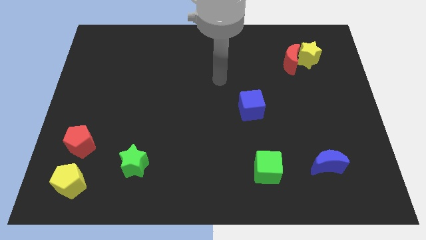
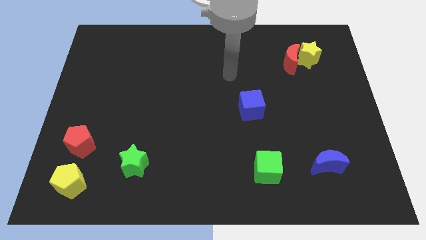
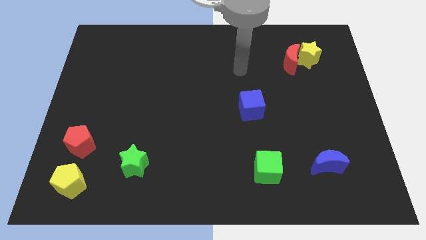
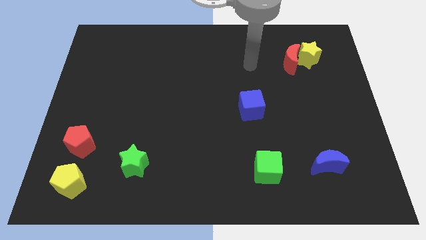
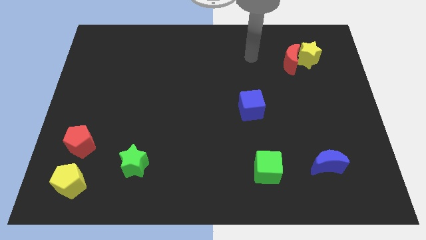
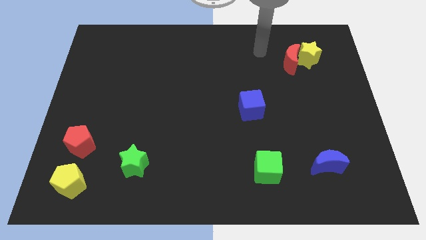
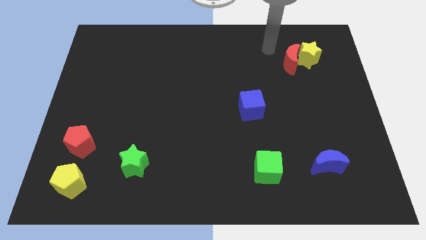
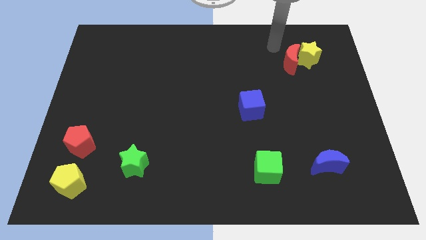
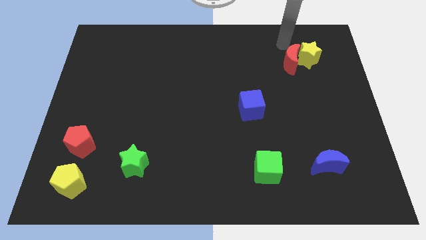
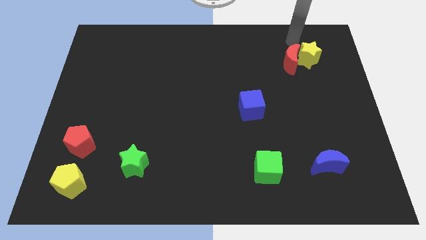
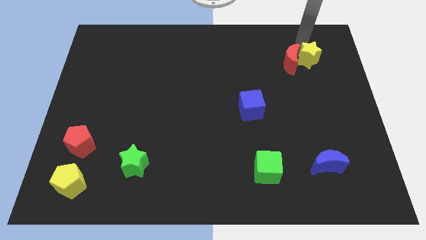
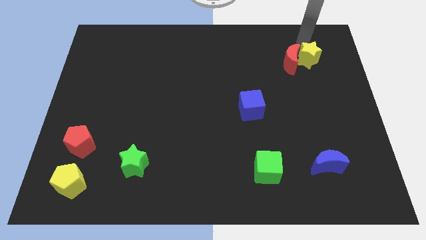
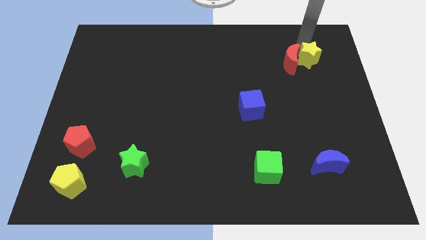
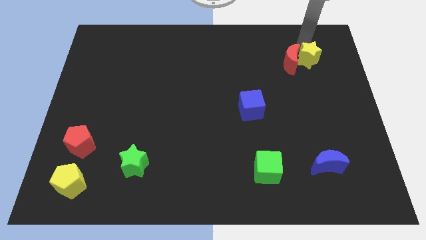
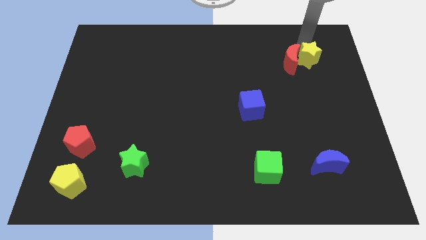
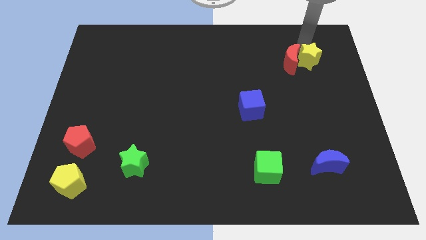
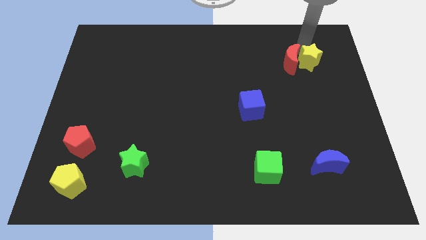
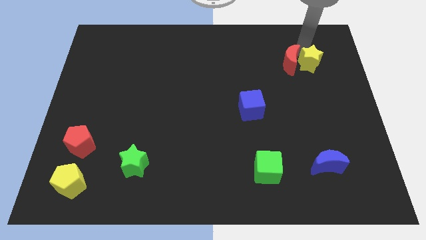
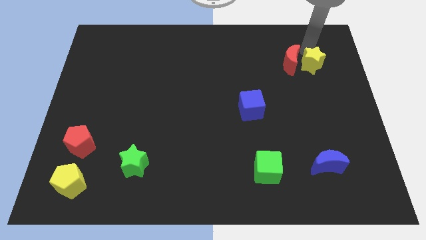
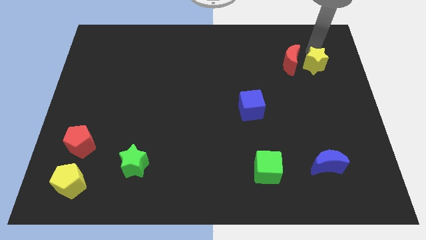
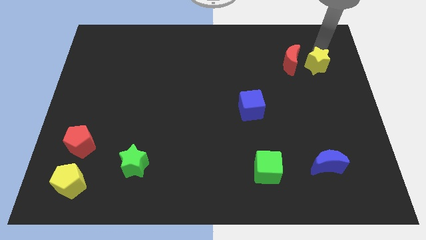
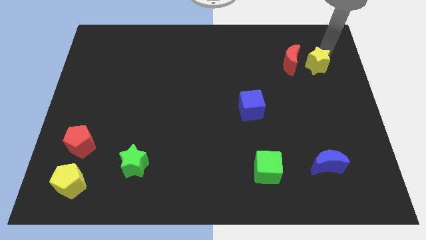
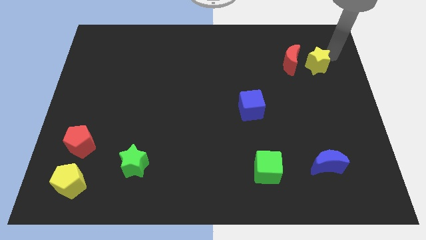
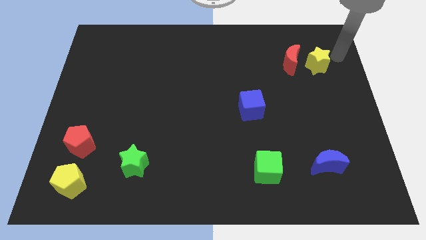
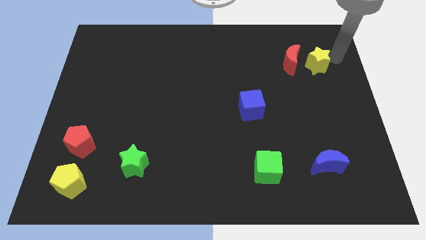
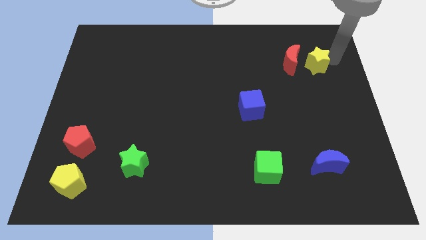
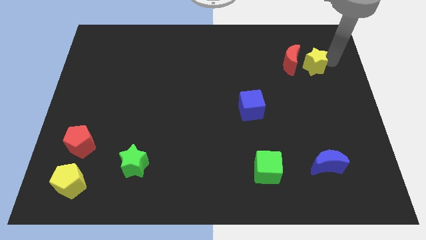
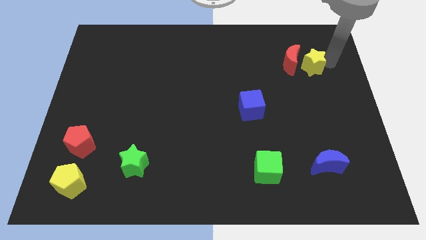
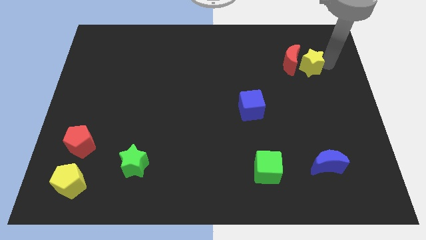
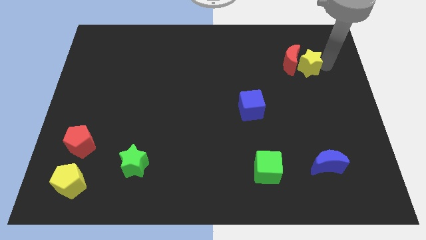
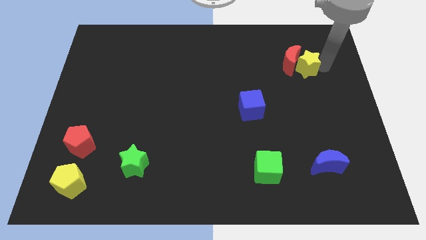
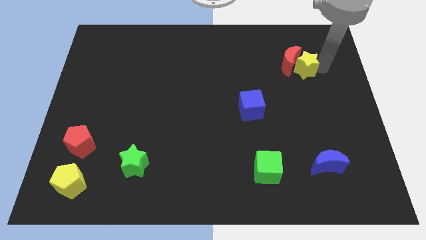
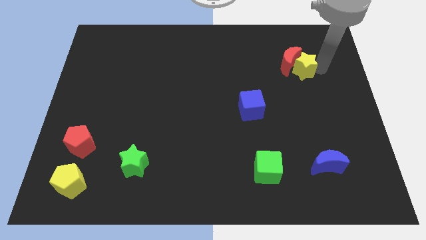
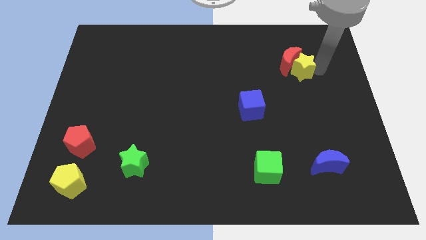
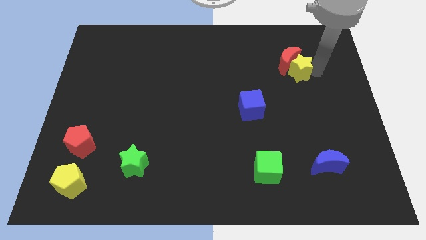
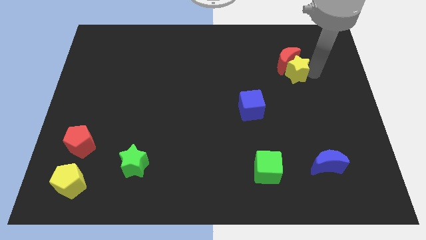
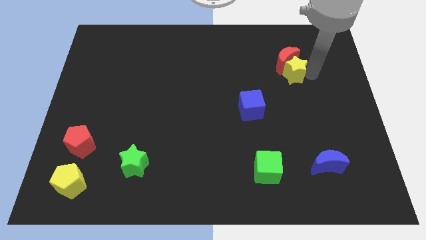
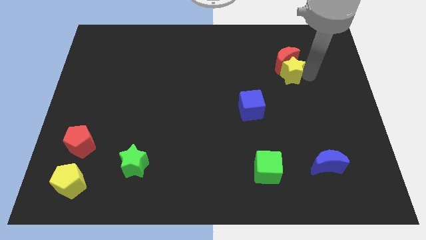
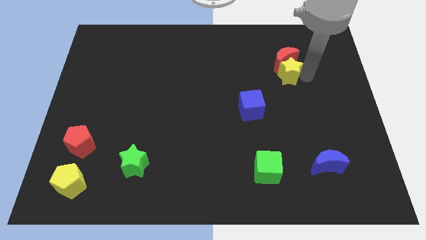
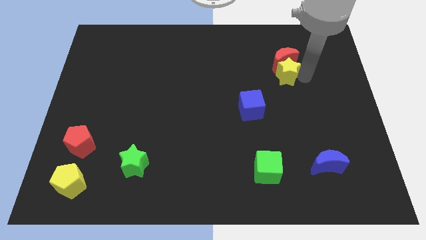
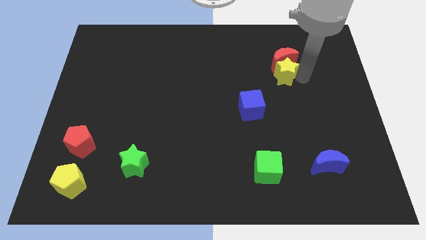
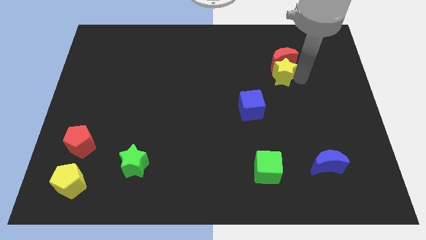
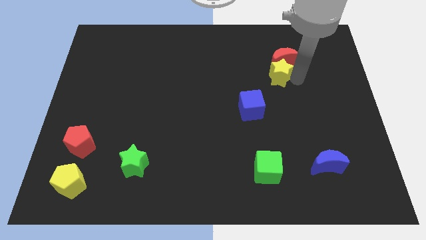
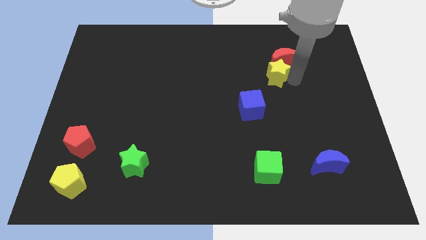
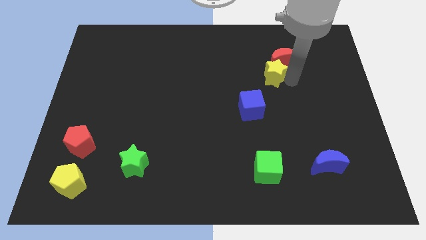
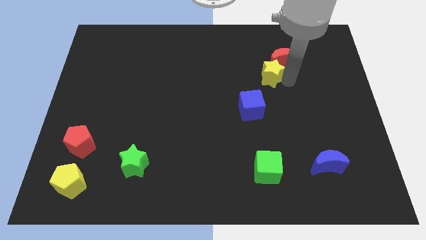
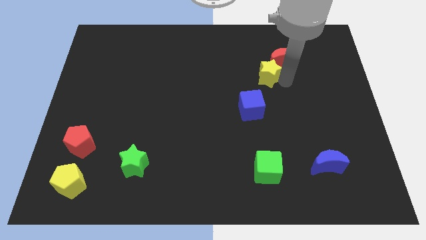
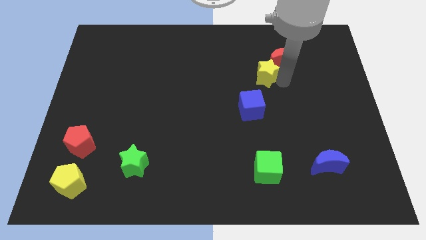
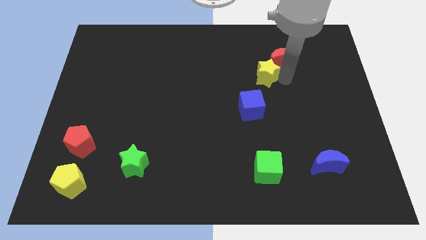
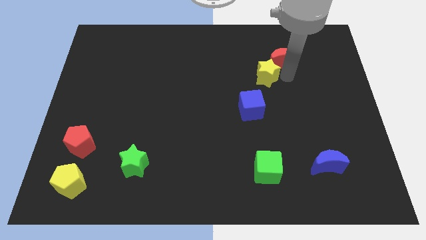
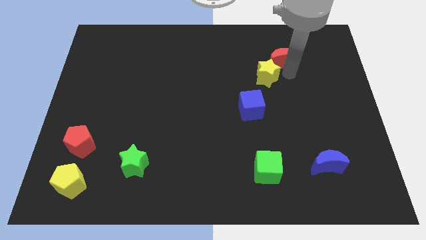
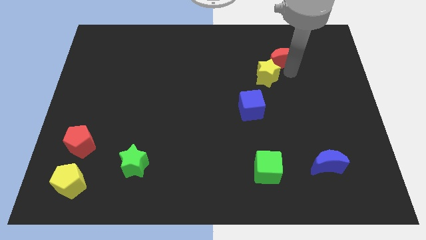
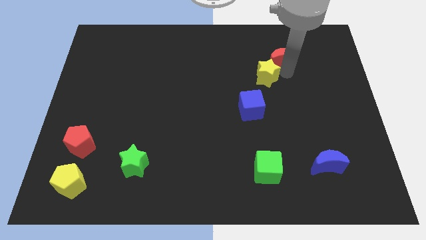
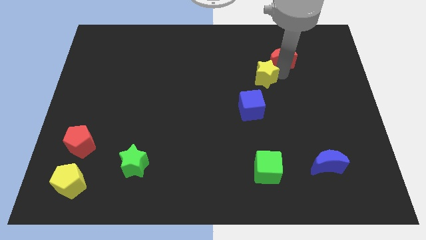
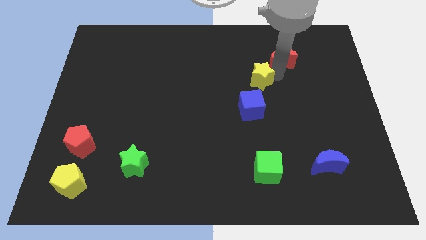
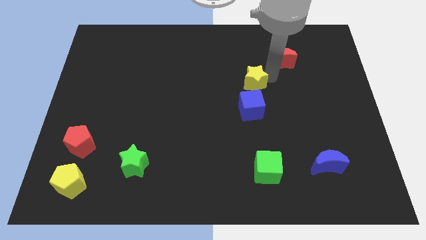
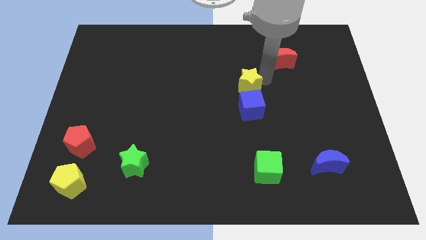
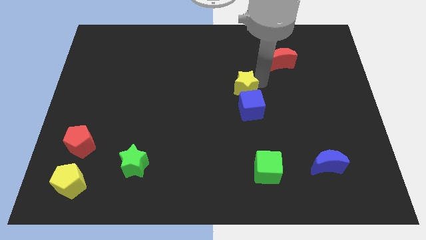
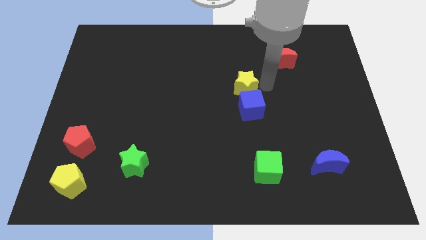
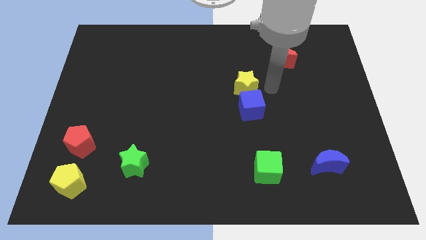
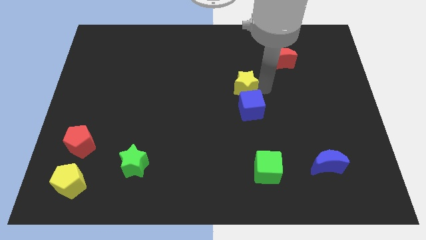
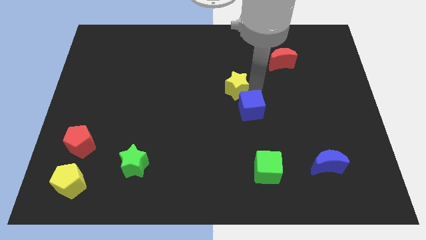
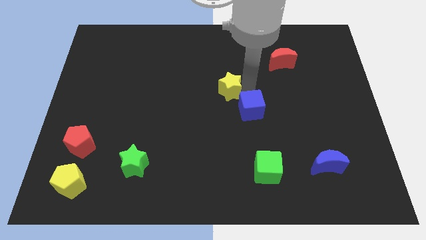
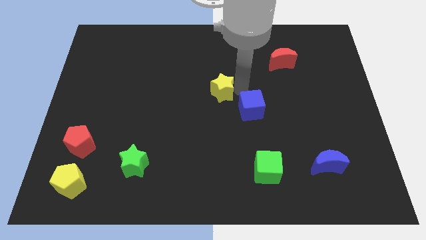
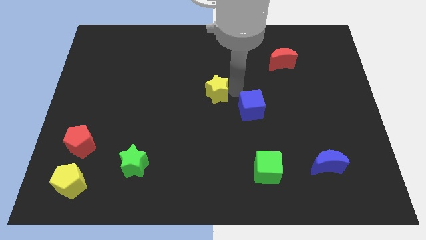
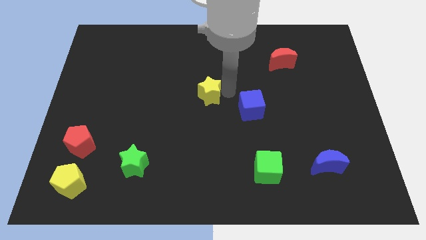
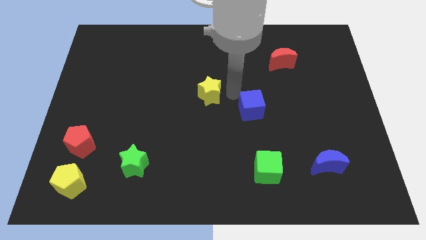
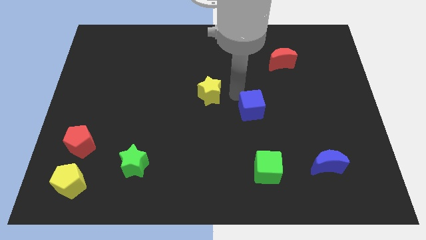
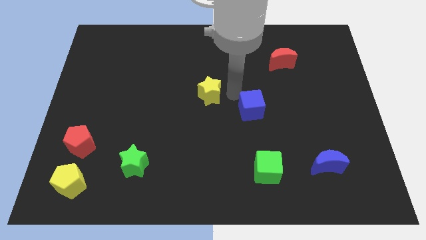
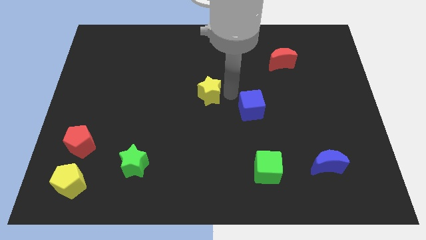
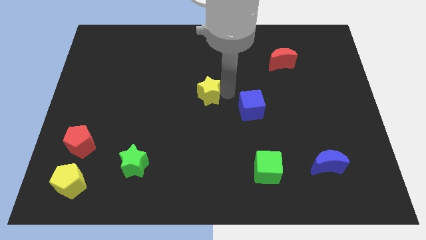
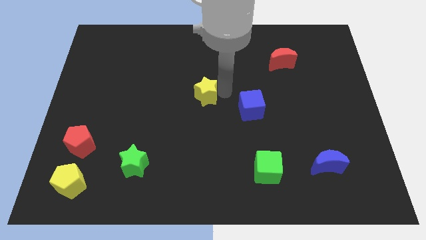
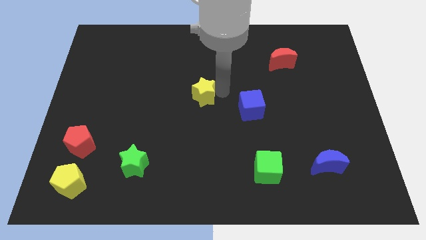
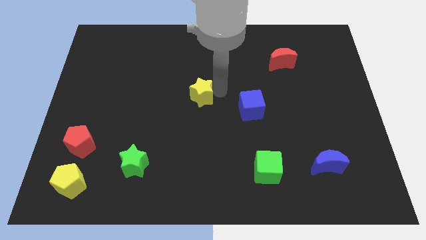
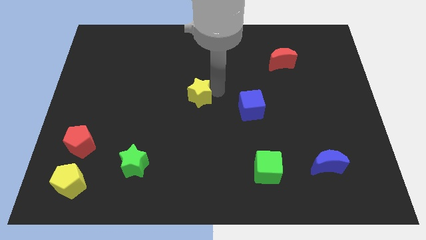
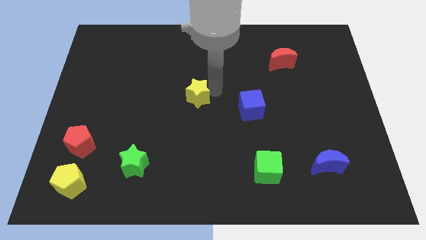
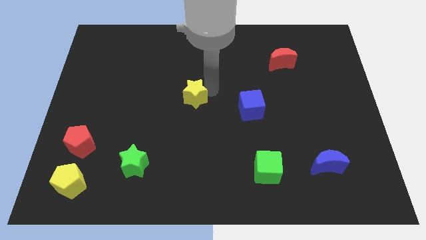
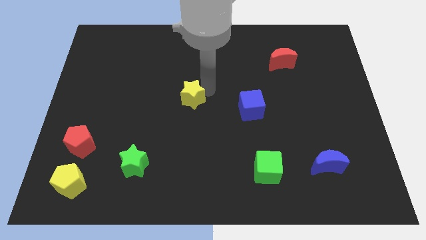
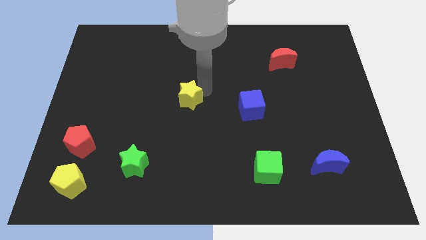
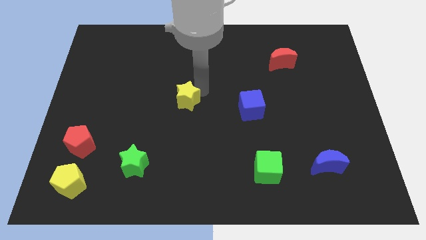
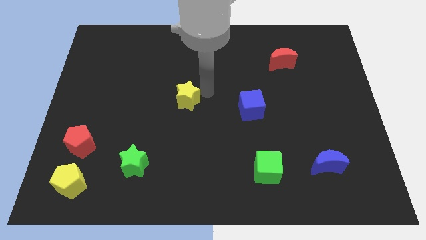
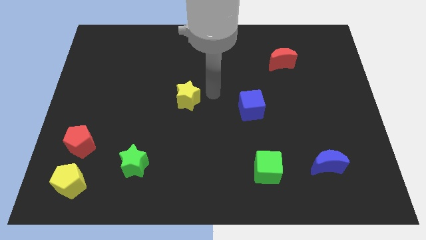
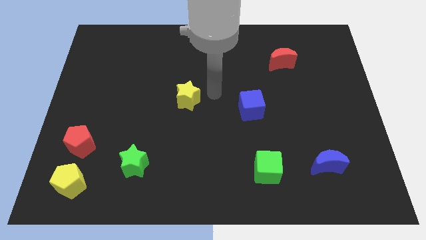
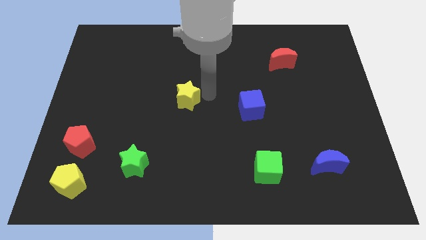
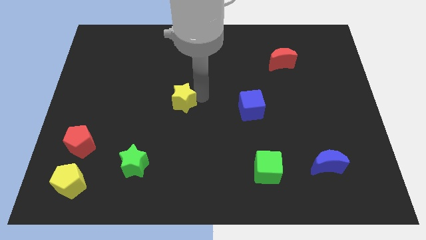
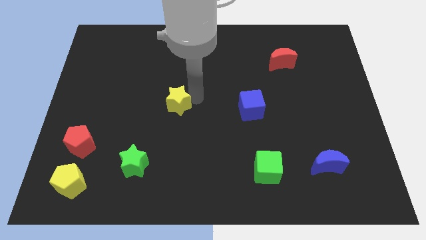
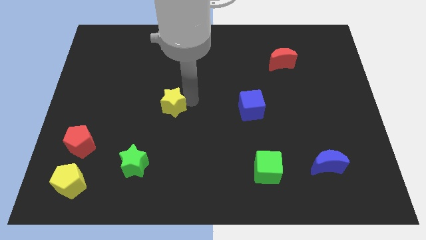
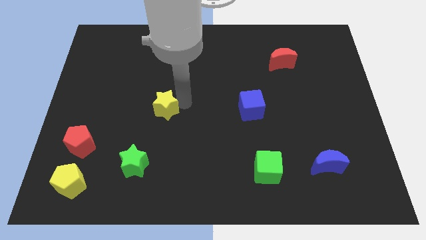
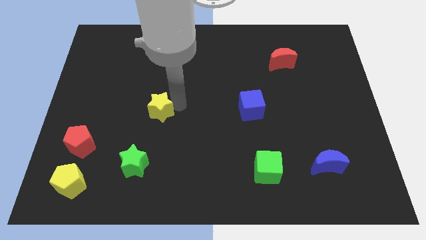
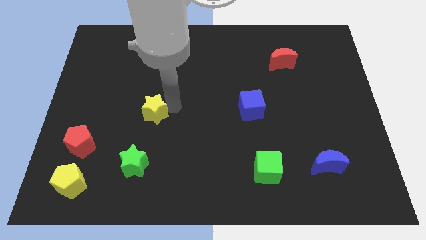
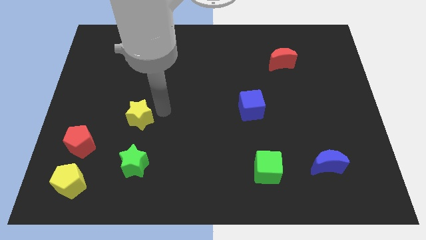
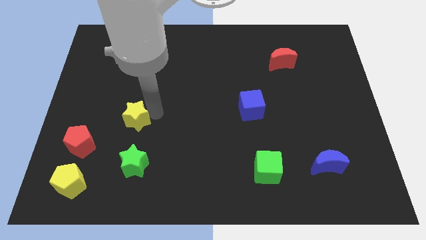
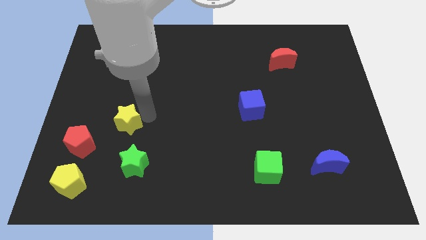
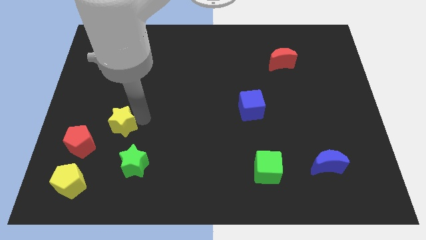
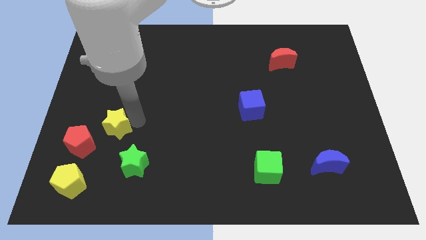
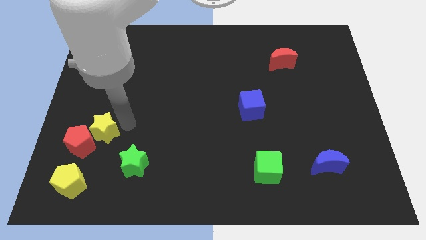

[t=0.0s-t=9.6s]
put the yellow star to the top side of the yellow pentagon
